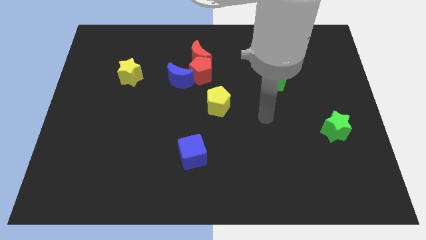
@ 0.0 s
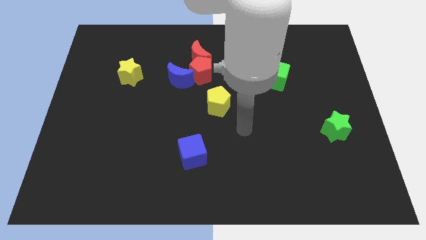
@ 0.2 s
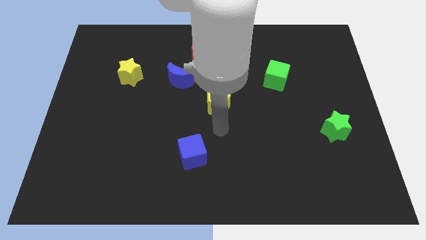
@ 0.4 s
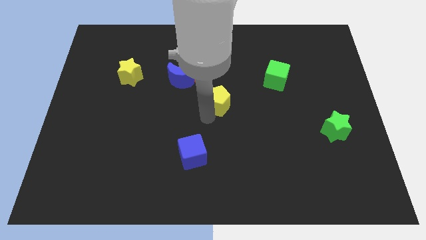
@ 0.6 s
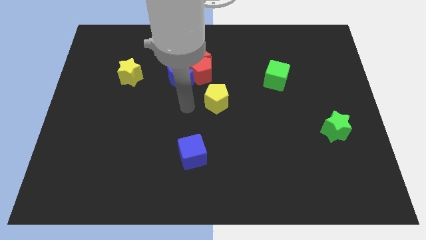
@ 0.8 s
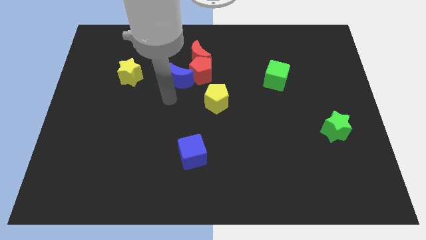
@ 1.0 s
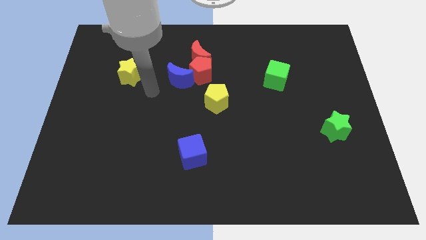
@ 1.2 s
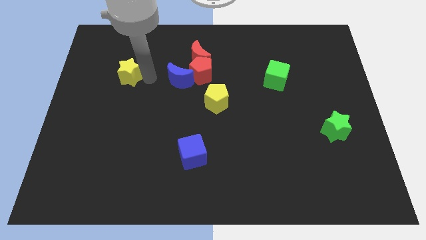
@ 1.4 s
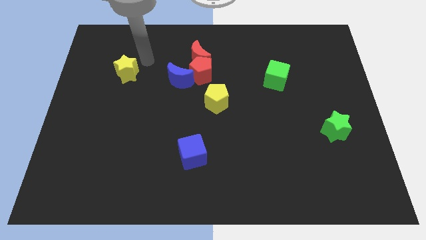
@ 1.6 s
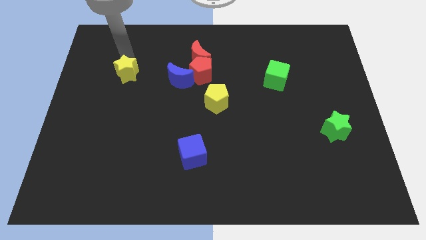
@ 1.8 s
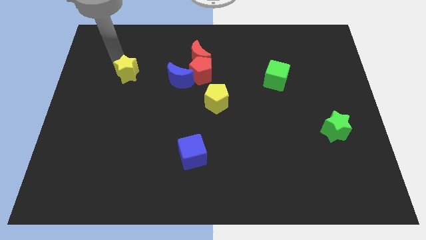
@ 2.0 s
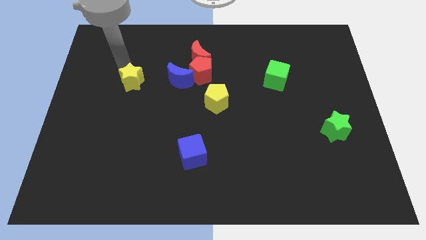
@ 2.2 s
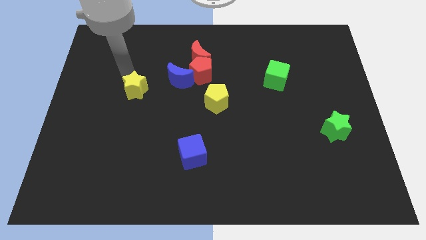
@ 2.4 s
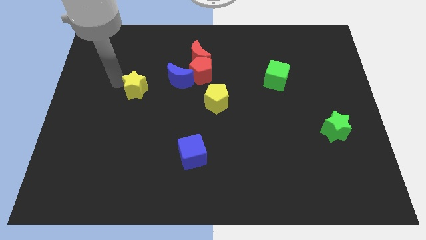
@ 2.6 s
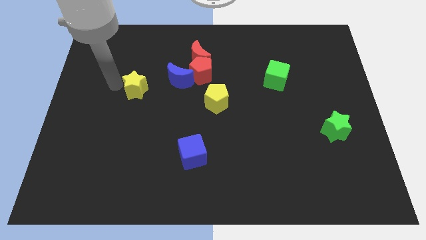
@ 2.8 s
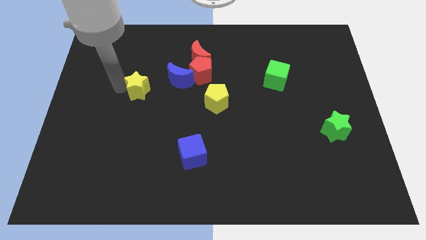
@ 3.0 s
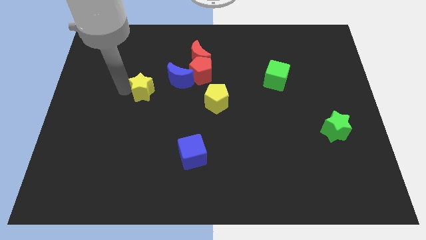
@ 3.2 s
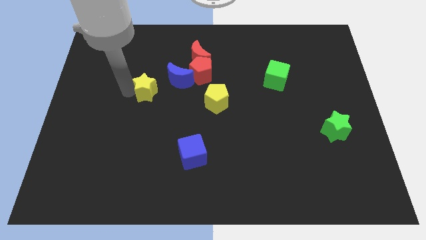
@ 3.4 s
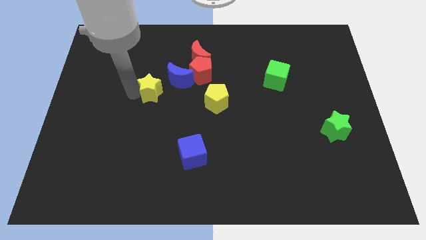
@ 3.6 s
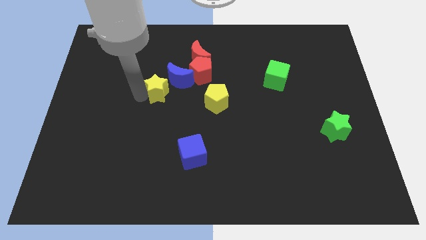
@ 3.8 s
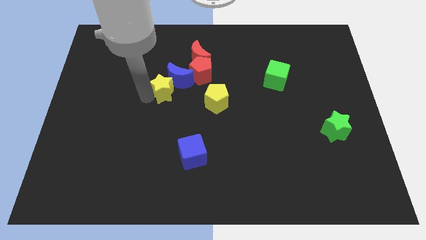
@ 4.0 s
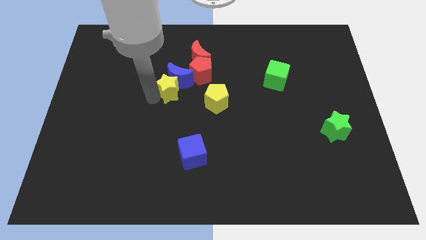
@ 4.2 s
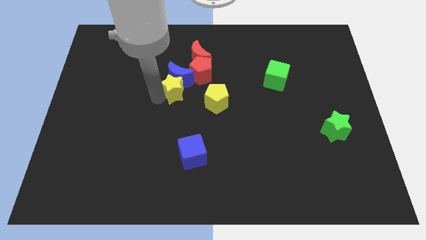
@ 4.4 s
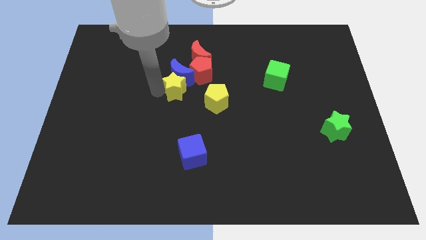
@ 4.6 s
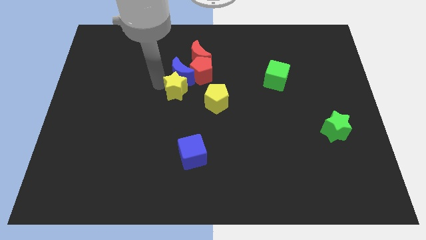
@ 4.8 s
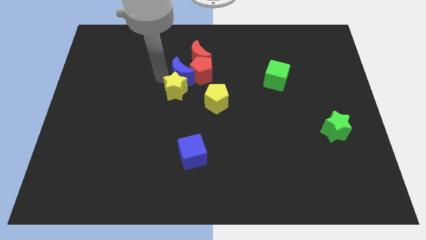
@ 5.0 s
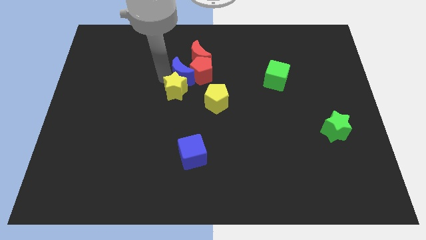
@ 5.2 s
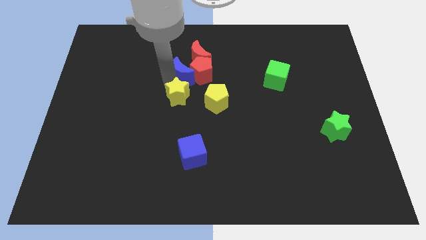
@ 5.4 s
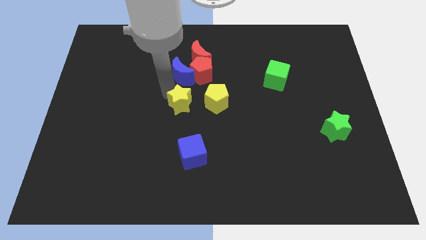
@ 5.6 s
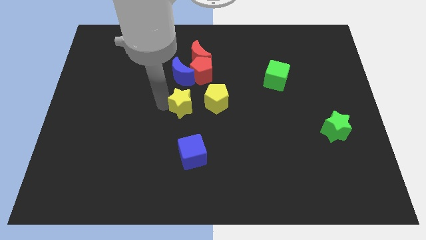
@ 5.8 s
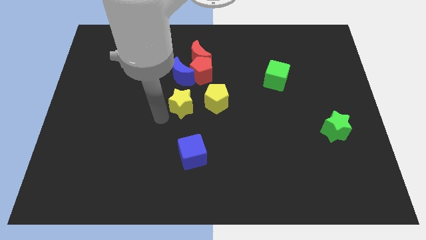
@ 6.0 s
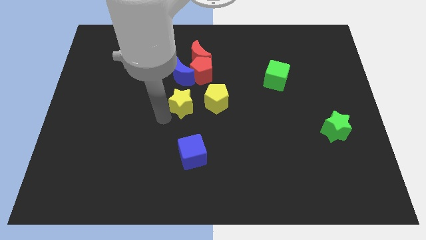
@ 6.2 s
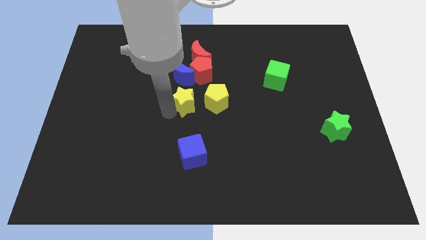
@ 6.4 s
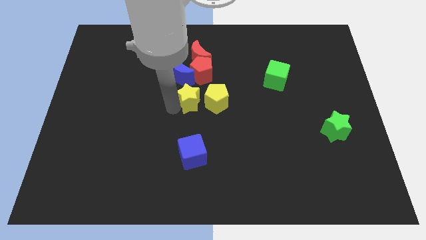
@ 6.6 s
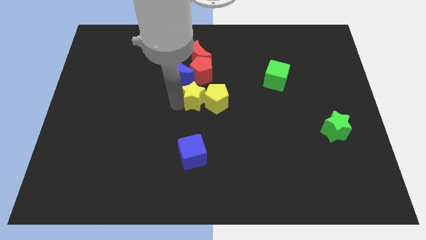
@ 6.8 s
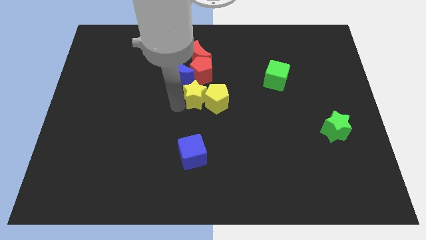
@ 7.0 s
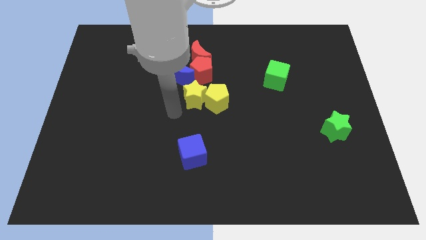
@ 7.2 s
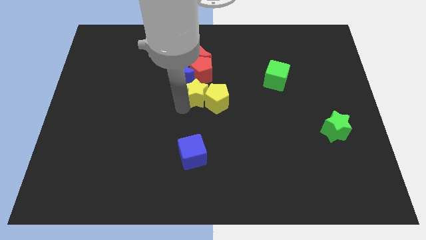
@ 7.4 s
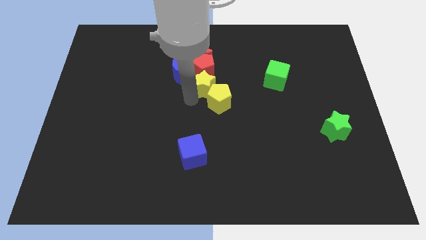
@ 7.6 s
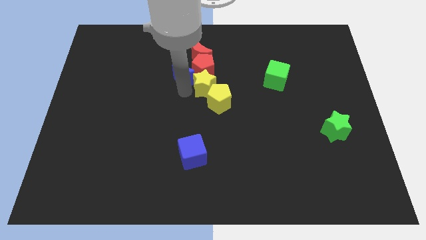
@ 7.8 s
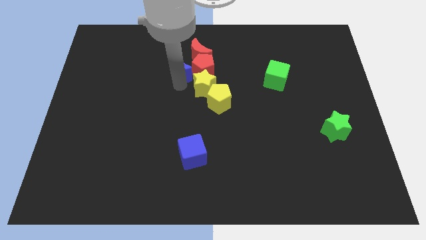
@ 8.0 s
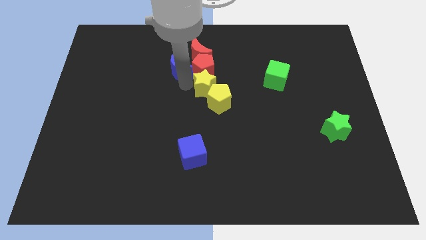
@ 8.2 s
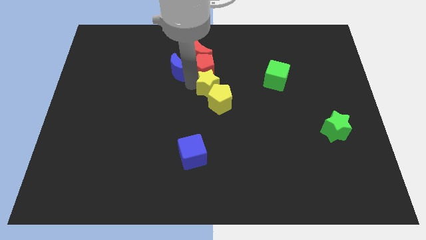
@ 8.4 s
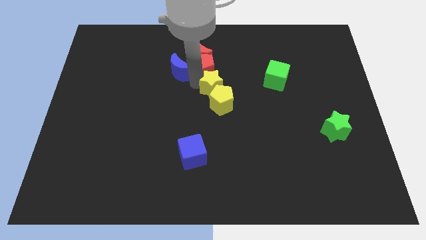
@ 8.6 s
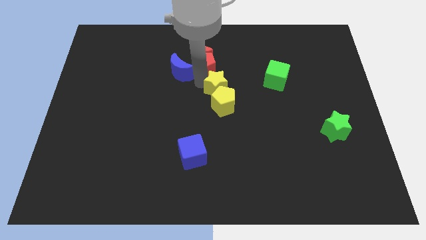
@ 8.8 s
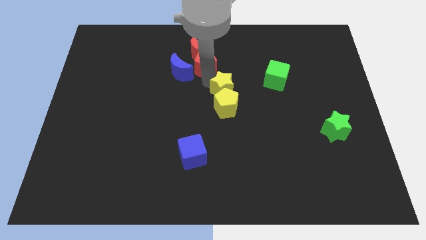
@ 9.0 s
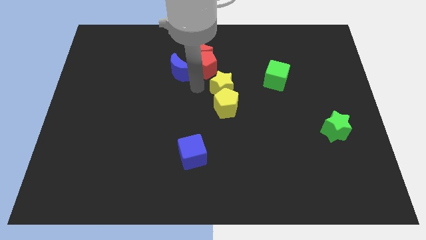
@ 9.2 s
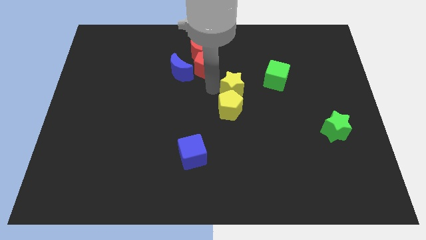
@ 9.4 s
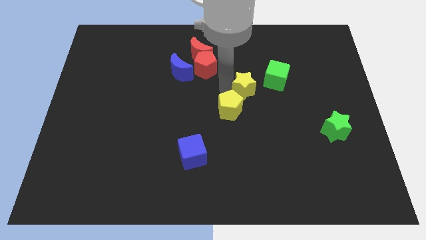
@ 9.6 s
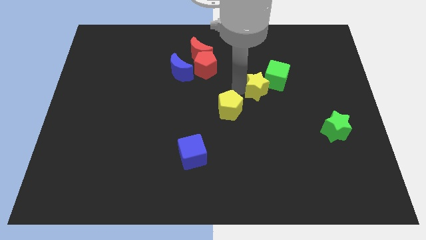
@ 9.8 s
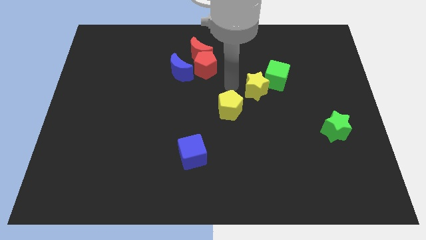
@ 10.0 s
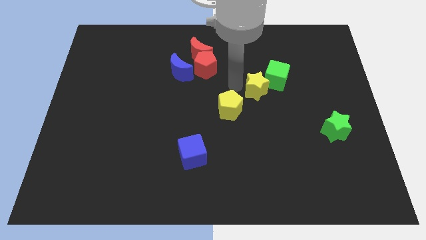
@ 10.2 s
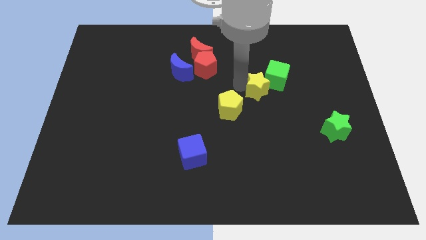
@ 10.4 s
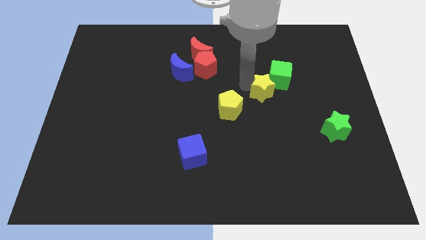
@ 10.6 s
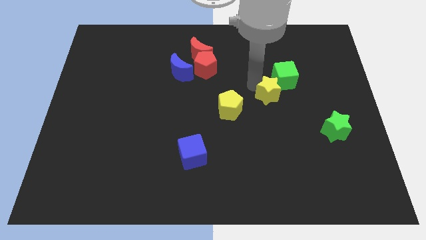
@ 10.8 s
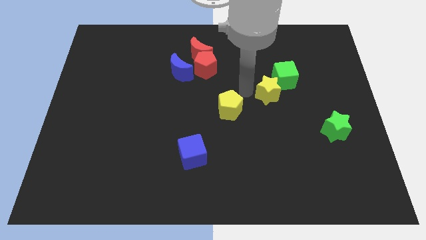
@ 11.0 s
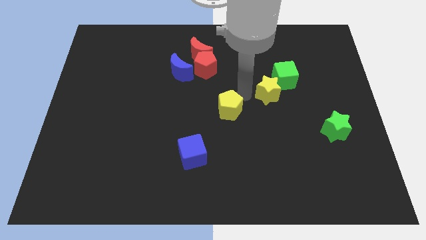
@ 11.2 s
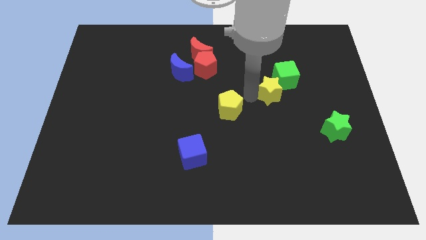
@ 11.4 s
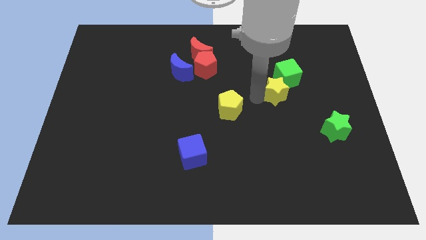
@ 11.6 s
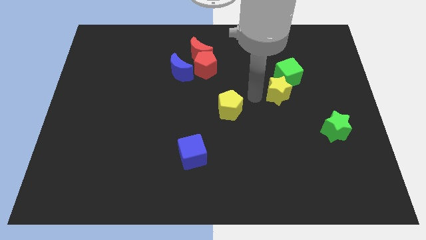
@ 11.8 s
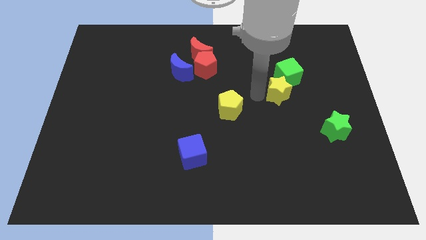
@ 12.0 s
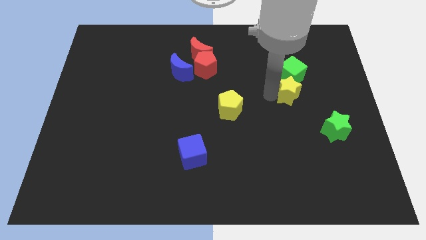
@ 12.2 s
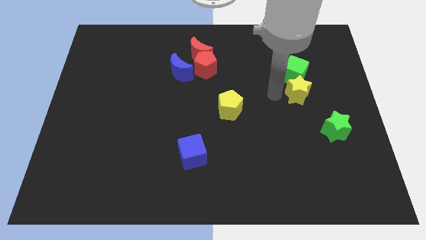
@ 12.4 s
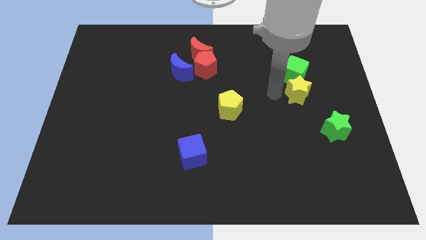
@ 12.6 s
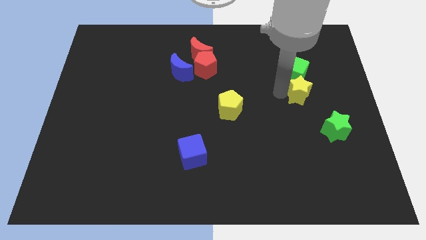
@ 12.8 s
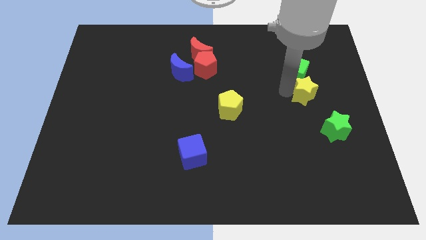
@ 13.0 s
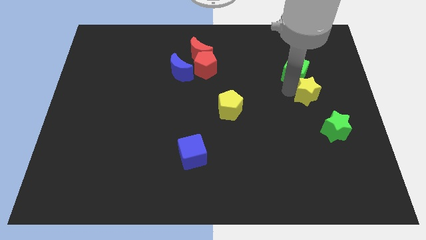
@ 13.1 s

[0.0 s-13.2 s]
slide the yellow star to the top side of the green star

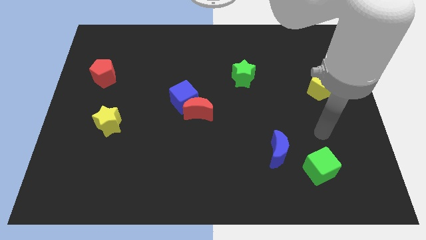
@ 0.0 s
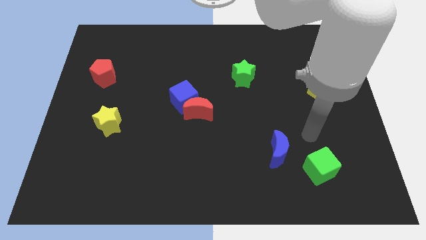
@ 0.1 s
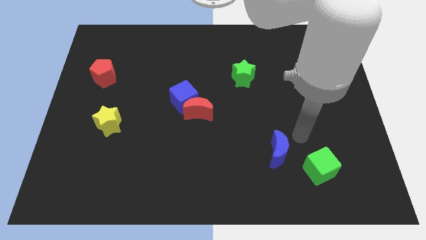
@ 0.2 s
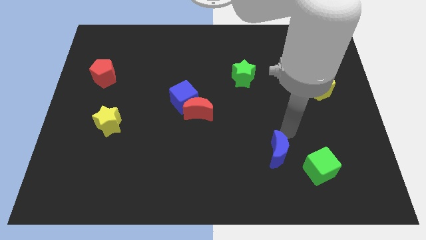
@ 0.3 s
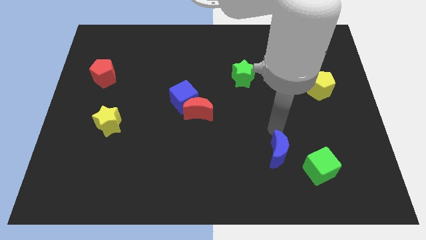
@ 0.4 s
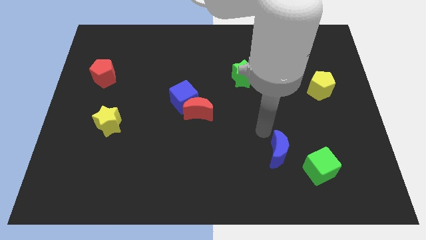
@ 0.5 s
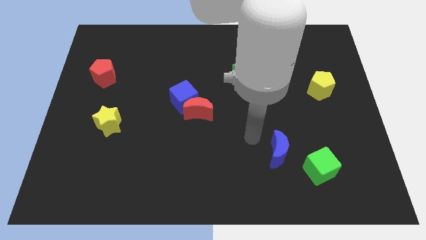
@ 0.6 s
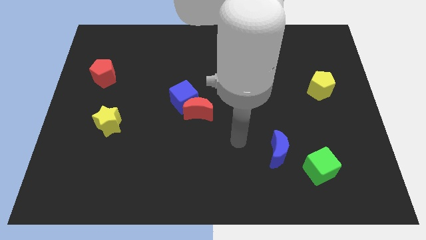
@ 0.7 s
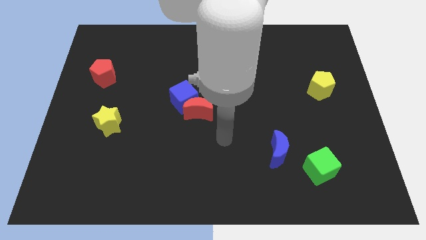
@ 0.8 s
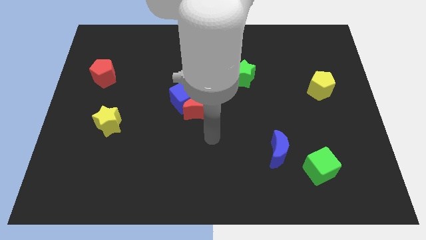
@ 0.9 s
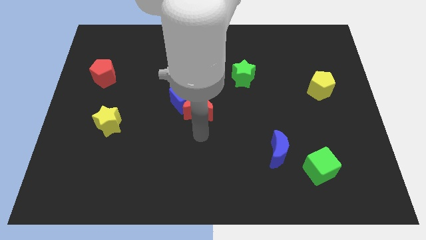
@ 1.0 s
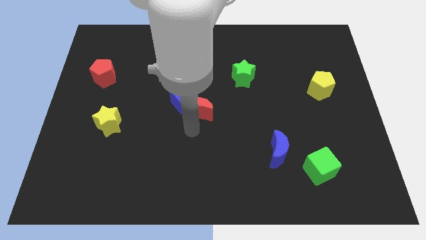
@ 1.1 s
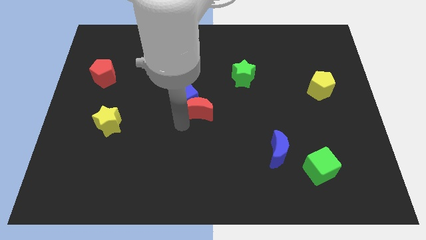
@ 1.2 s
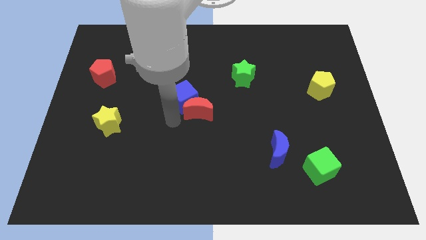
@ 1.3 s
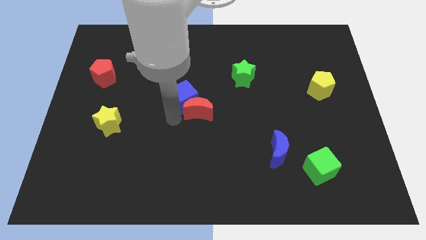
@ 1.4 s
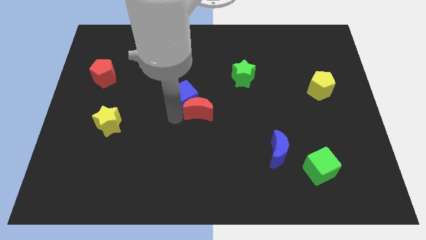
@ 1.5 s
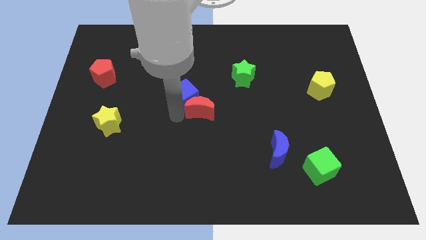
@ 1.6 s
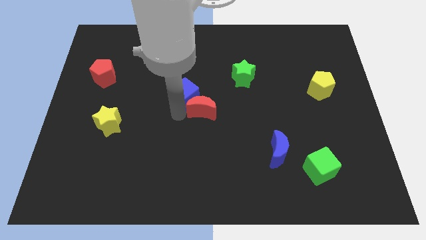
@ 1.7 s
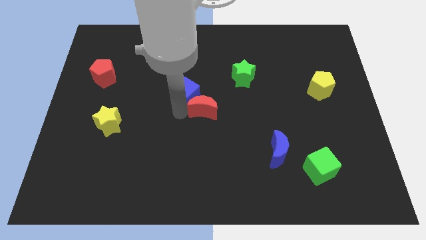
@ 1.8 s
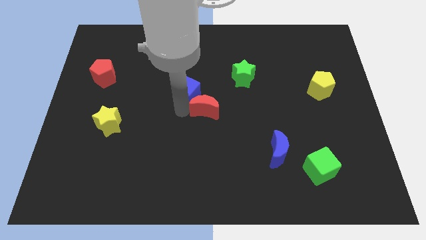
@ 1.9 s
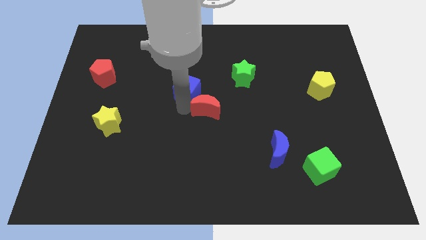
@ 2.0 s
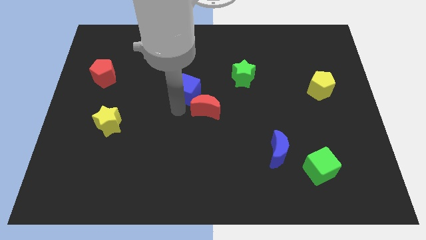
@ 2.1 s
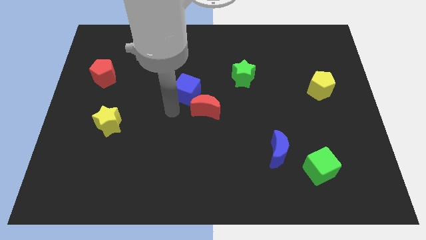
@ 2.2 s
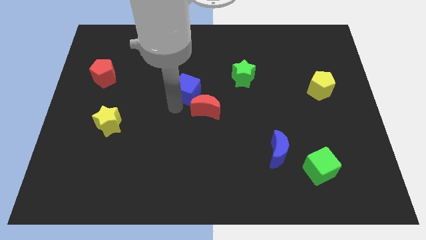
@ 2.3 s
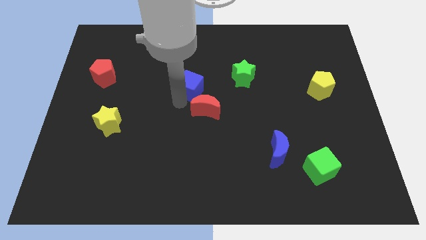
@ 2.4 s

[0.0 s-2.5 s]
push the blue cube to the left of the green star
